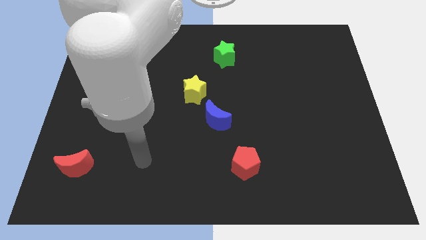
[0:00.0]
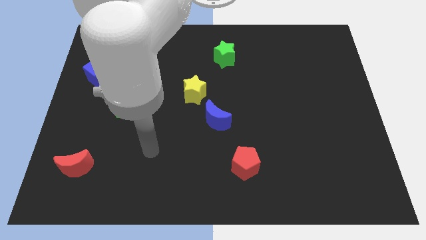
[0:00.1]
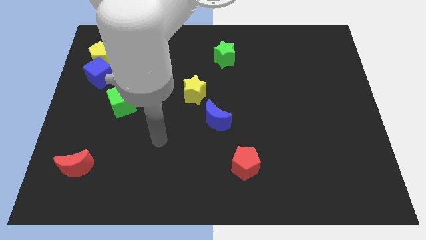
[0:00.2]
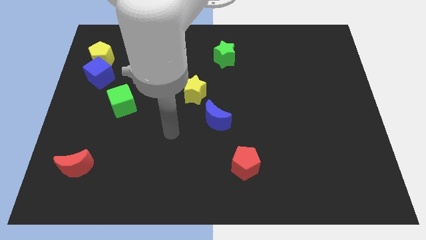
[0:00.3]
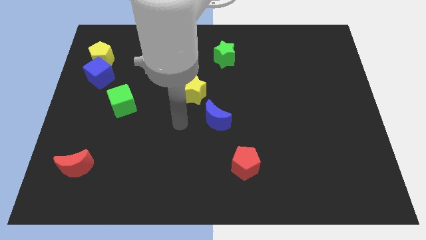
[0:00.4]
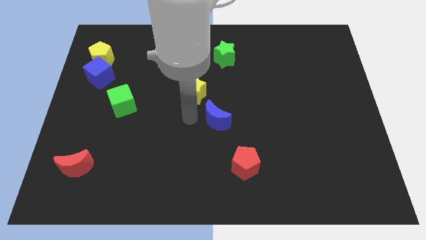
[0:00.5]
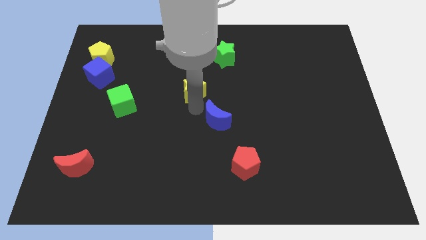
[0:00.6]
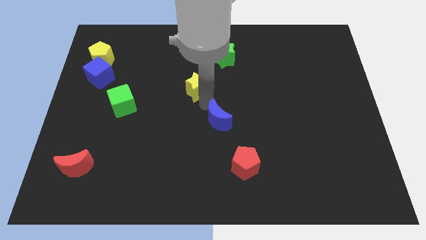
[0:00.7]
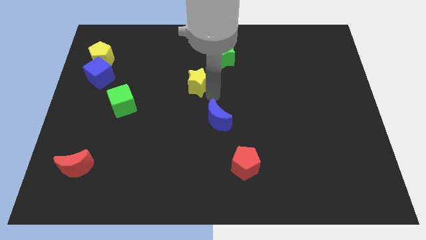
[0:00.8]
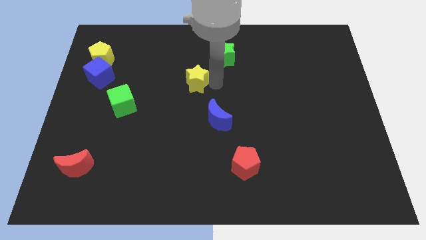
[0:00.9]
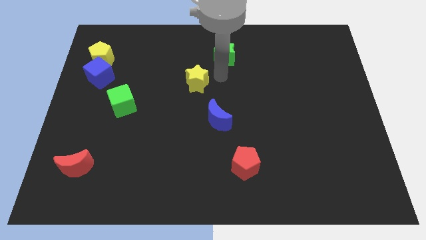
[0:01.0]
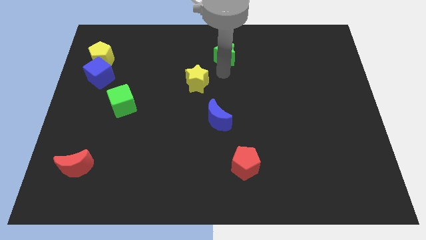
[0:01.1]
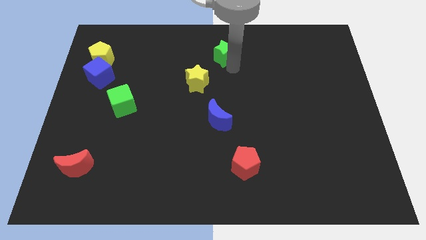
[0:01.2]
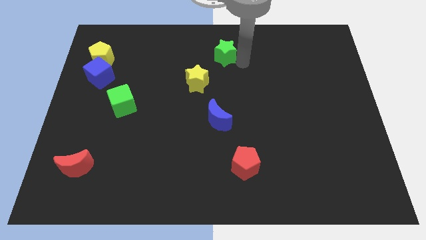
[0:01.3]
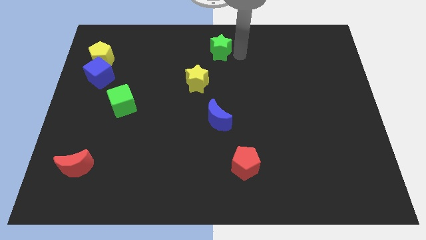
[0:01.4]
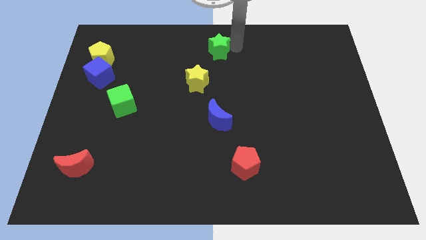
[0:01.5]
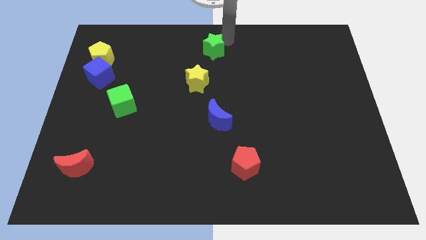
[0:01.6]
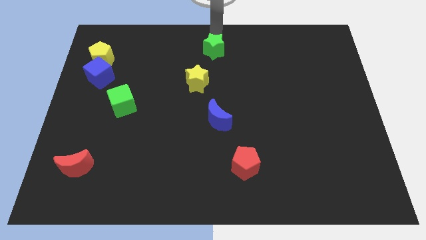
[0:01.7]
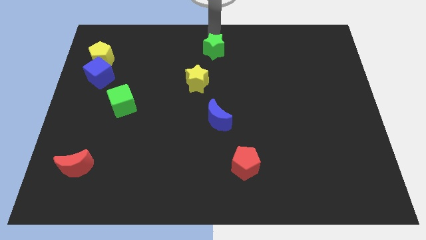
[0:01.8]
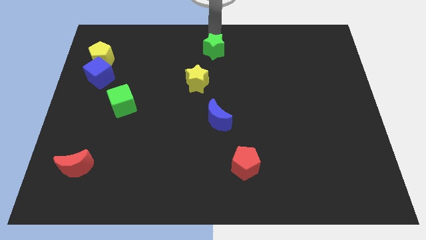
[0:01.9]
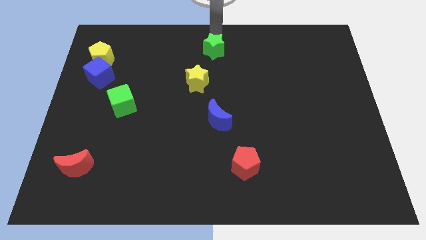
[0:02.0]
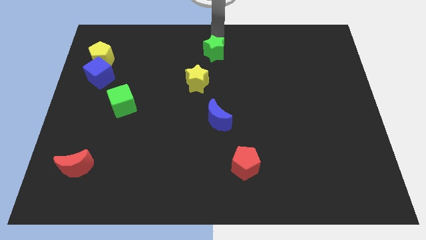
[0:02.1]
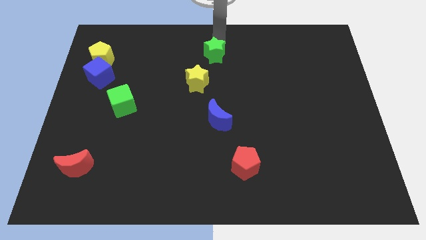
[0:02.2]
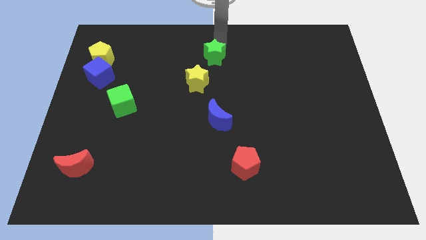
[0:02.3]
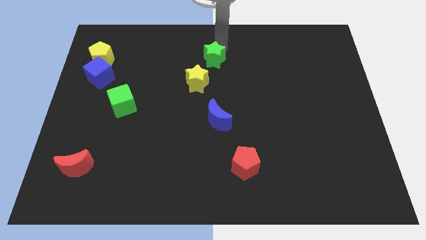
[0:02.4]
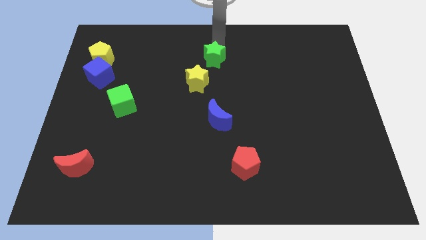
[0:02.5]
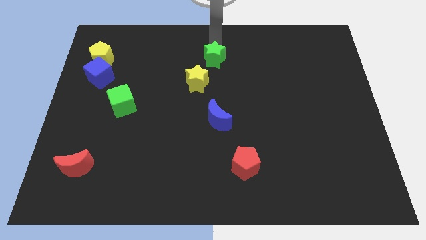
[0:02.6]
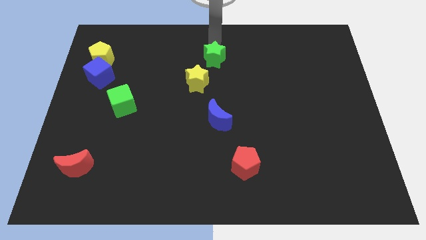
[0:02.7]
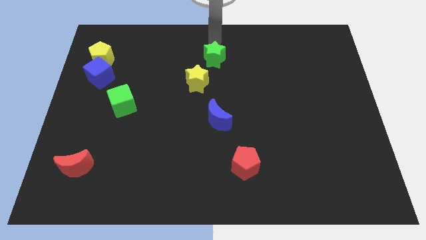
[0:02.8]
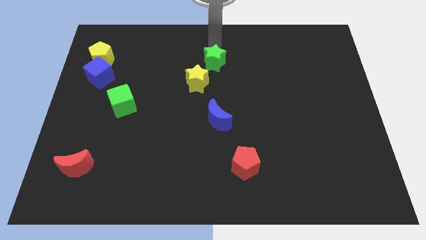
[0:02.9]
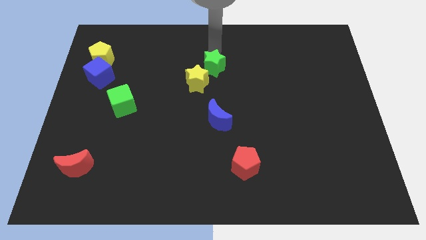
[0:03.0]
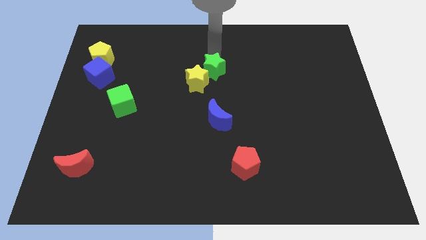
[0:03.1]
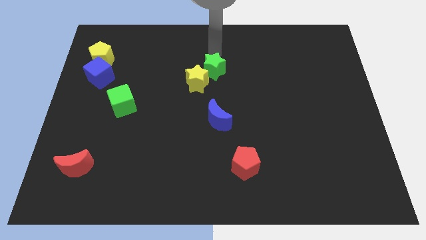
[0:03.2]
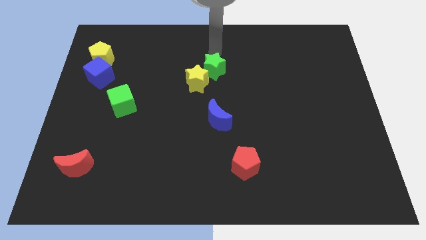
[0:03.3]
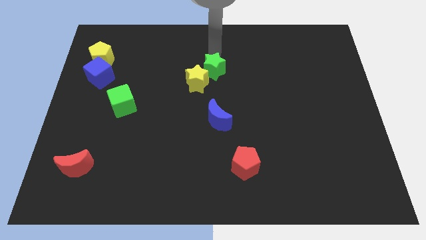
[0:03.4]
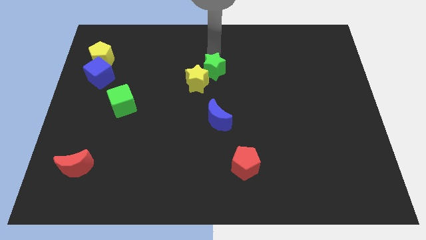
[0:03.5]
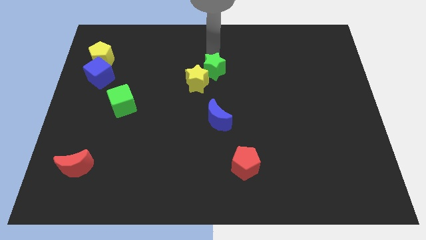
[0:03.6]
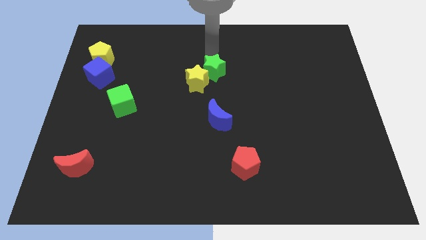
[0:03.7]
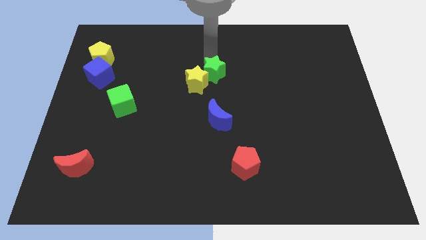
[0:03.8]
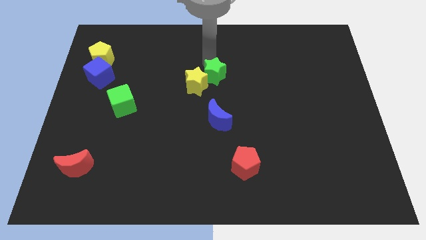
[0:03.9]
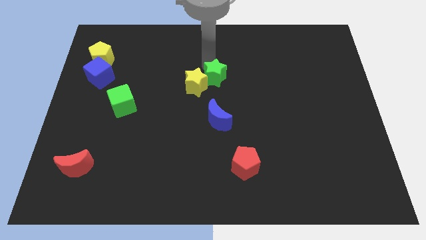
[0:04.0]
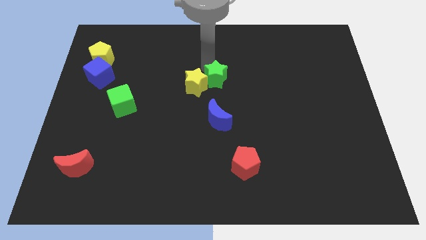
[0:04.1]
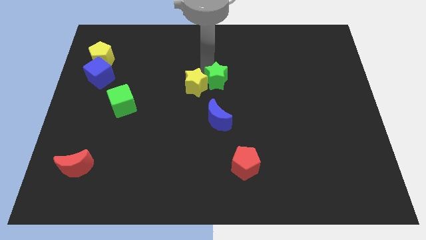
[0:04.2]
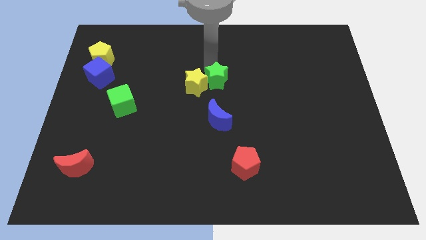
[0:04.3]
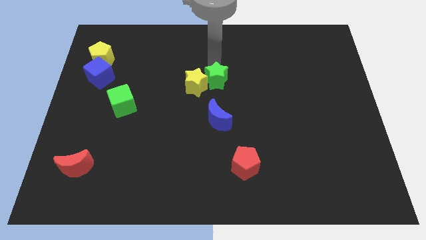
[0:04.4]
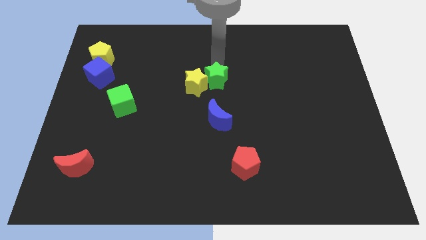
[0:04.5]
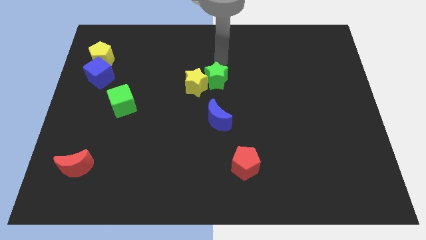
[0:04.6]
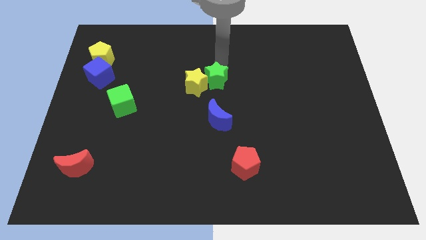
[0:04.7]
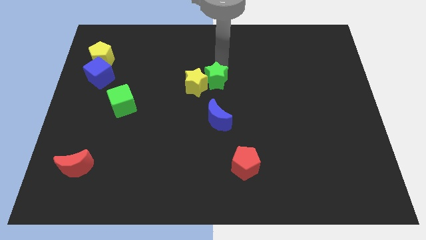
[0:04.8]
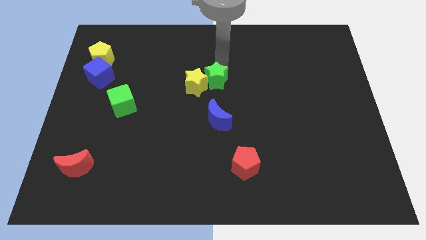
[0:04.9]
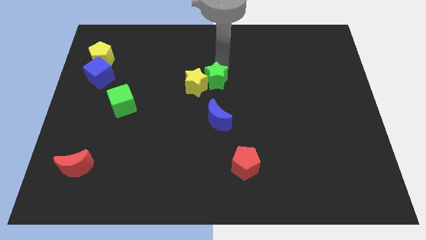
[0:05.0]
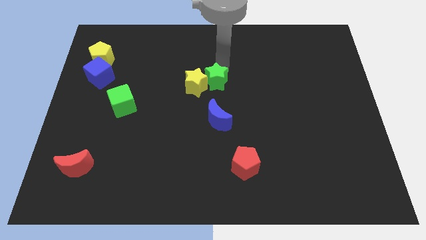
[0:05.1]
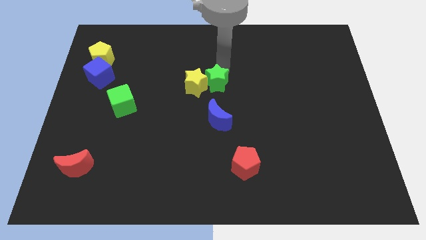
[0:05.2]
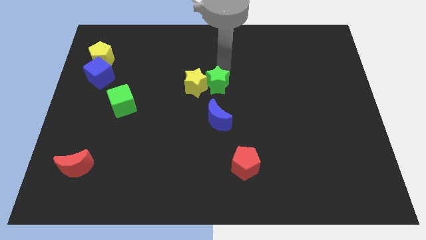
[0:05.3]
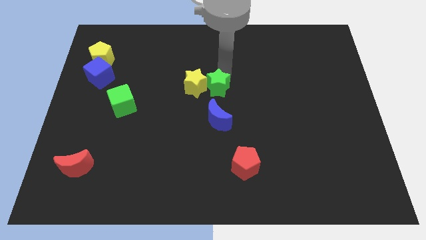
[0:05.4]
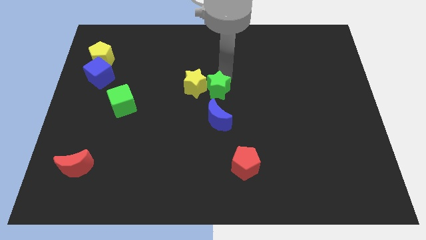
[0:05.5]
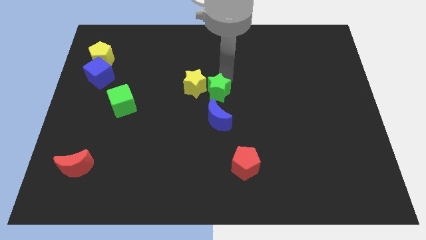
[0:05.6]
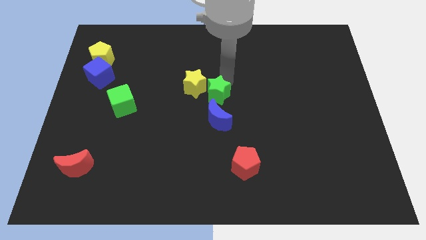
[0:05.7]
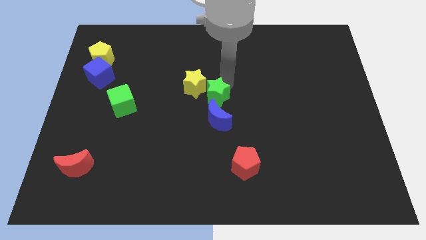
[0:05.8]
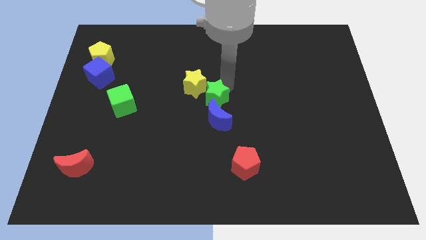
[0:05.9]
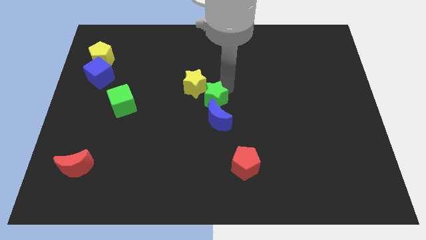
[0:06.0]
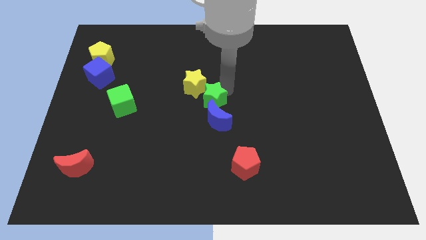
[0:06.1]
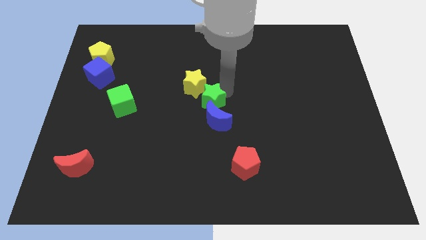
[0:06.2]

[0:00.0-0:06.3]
put the green star to the bottom of the yellow star
